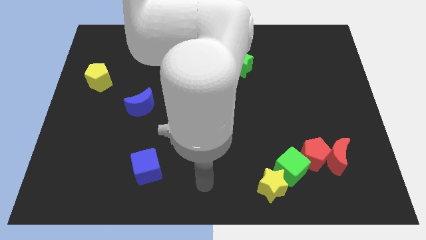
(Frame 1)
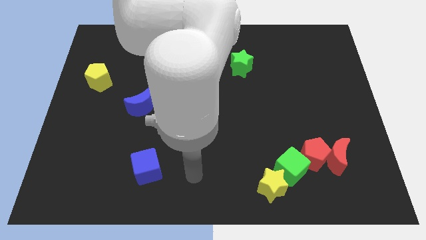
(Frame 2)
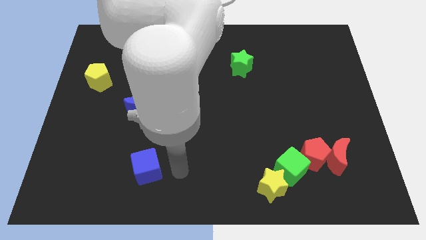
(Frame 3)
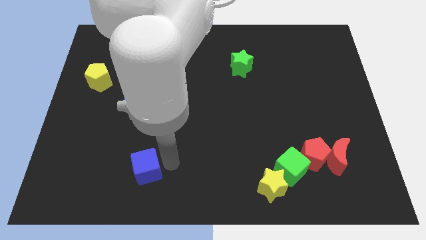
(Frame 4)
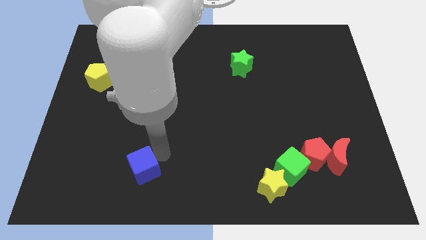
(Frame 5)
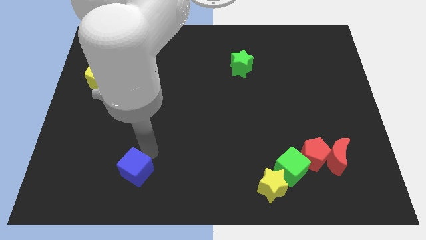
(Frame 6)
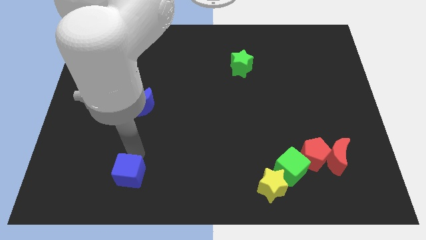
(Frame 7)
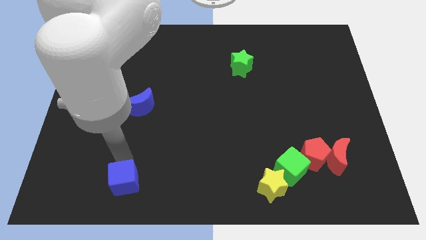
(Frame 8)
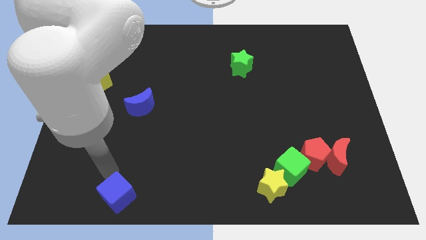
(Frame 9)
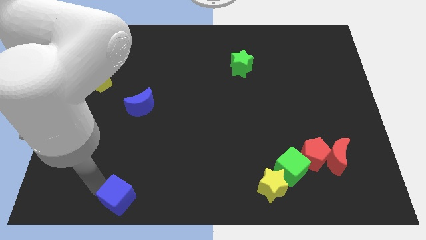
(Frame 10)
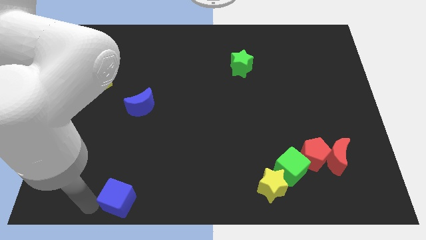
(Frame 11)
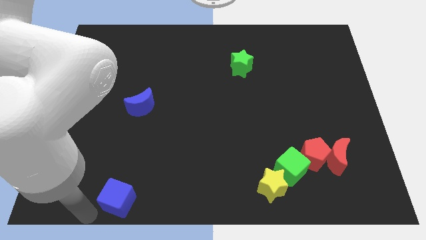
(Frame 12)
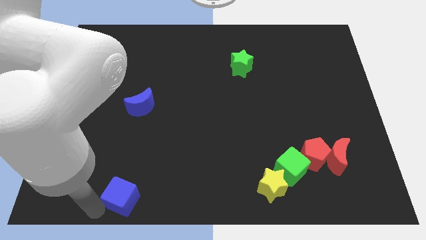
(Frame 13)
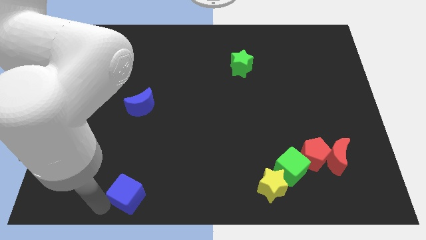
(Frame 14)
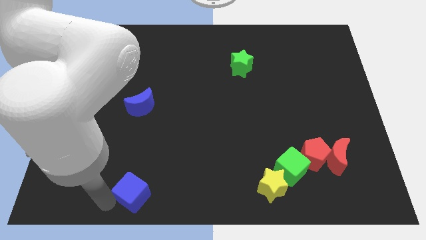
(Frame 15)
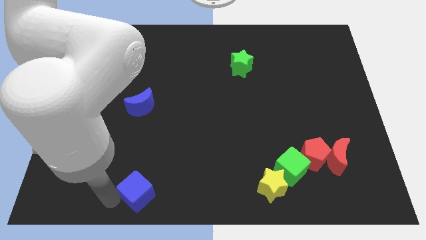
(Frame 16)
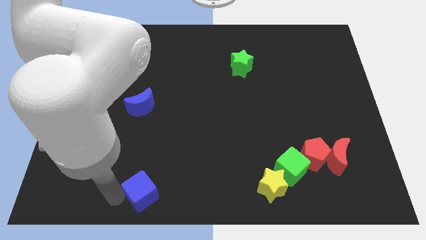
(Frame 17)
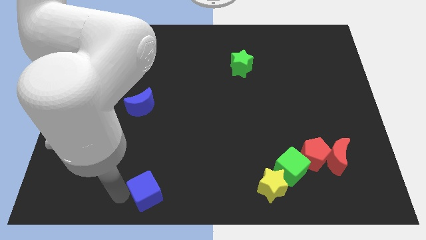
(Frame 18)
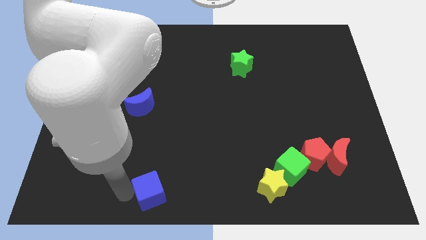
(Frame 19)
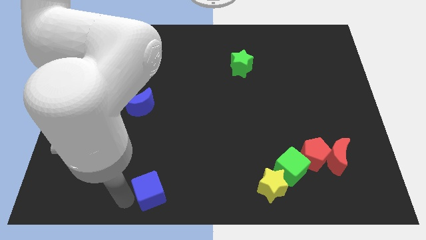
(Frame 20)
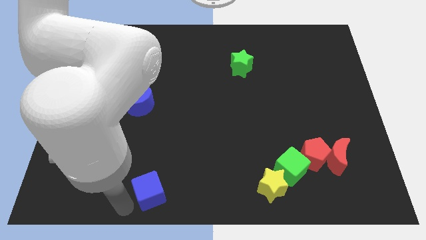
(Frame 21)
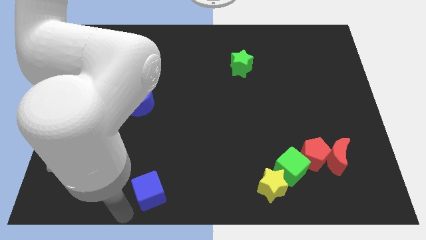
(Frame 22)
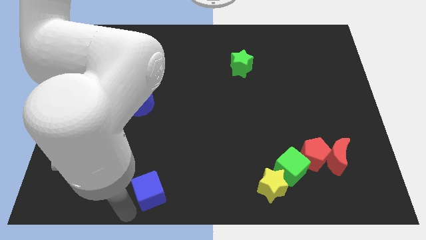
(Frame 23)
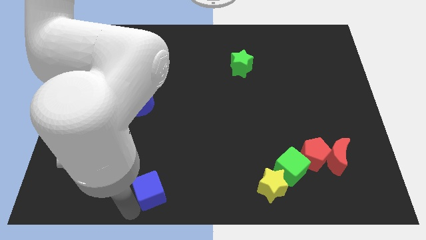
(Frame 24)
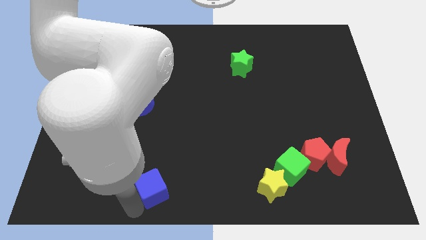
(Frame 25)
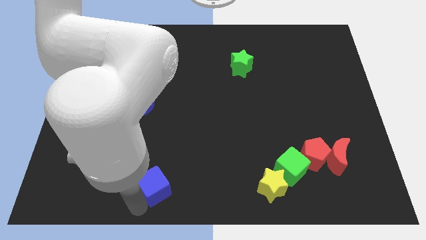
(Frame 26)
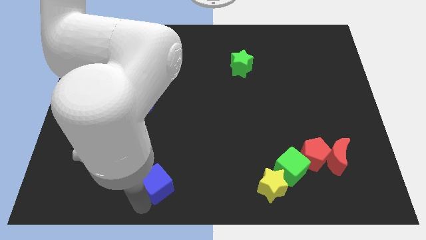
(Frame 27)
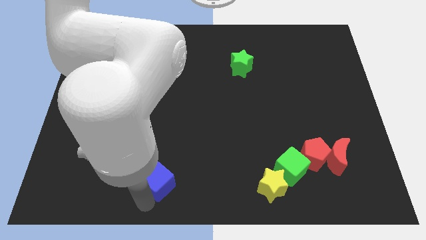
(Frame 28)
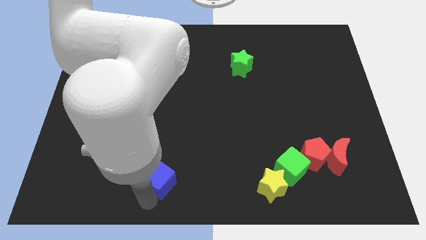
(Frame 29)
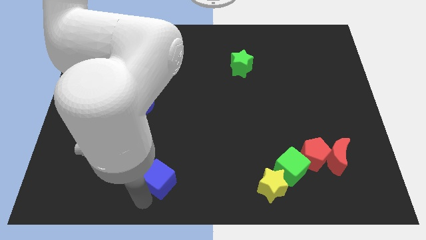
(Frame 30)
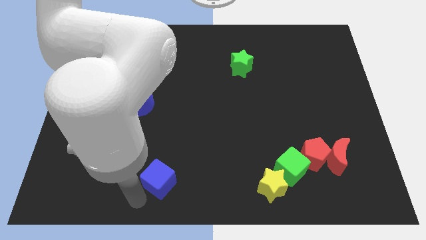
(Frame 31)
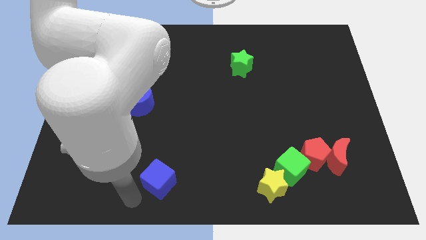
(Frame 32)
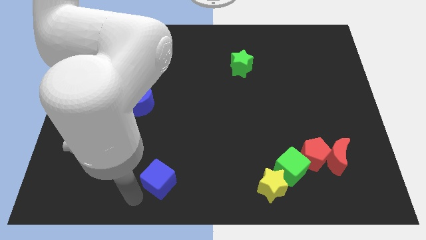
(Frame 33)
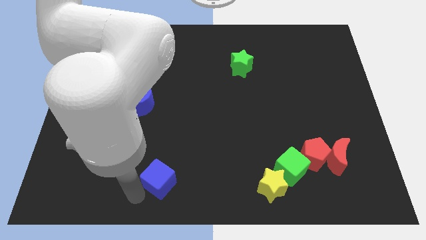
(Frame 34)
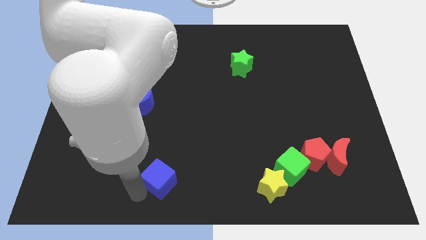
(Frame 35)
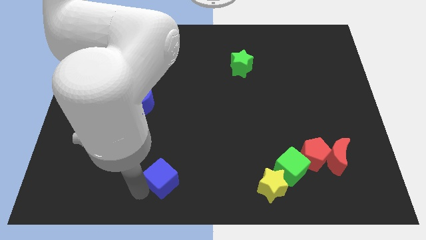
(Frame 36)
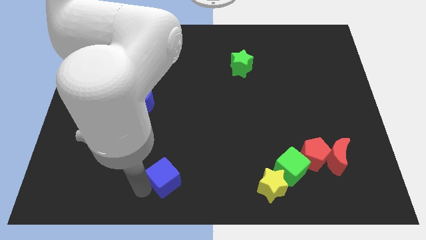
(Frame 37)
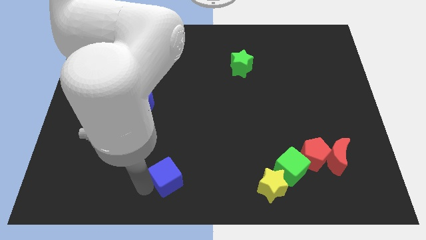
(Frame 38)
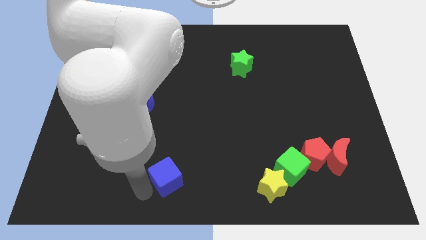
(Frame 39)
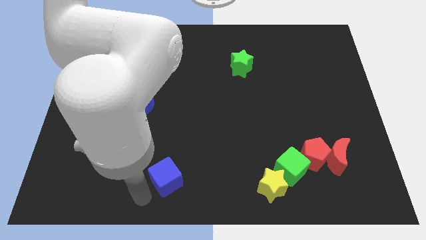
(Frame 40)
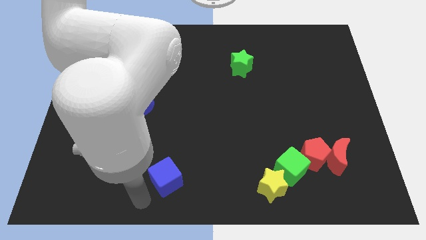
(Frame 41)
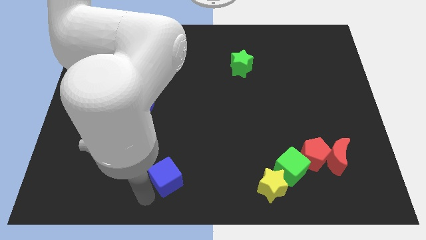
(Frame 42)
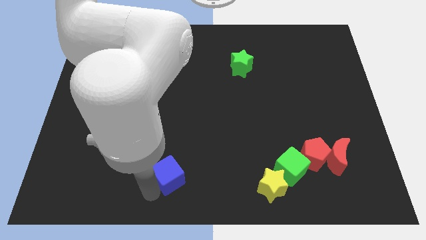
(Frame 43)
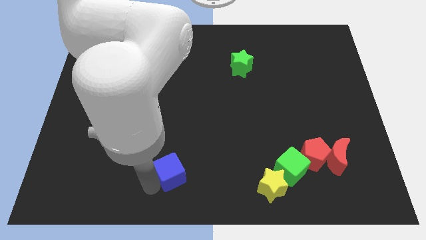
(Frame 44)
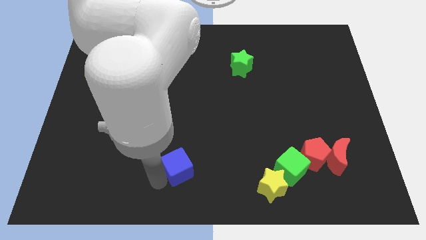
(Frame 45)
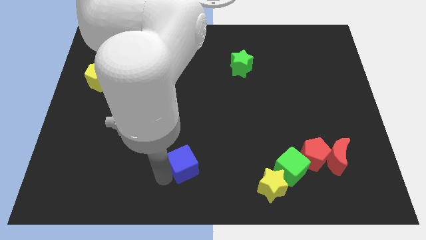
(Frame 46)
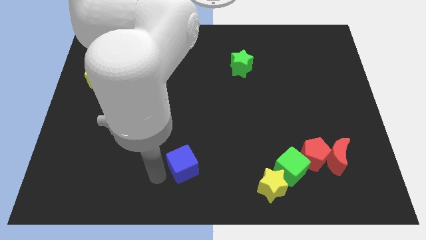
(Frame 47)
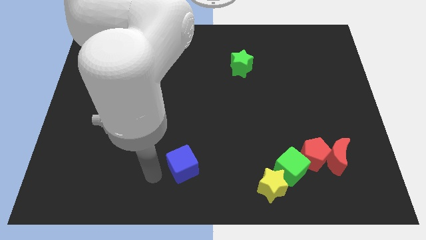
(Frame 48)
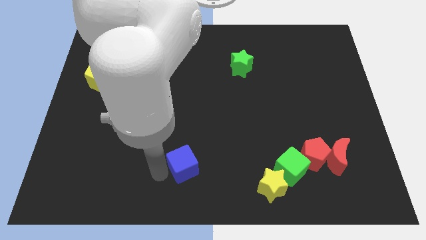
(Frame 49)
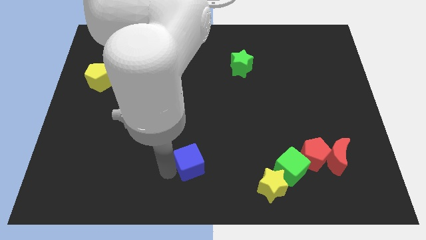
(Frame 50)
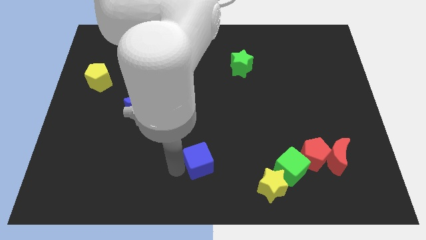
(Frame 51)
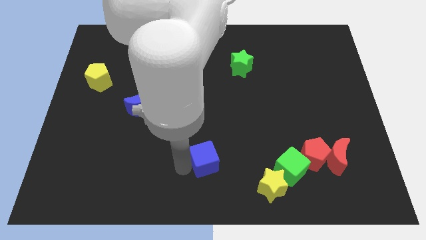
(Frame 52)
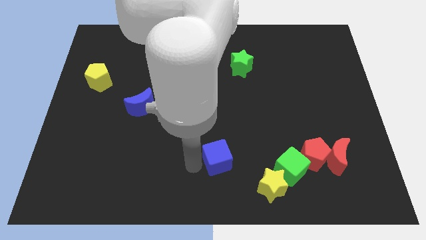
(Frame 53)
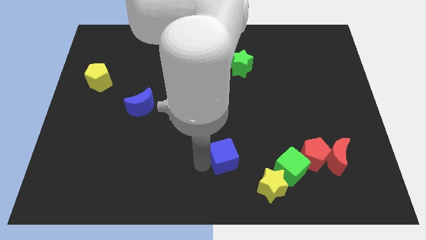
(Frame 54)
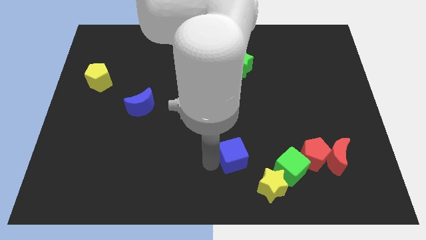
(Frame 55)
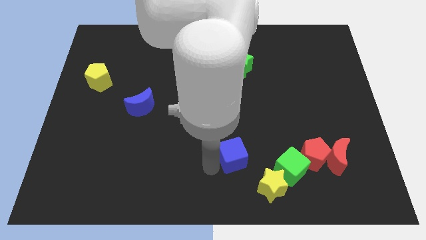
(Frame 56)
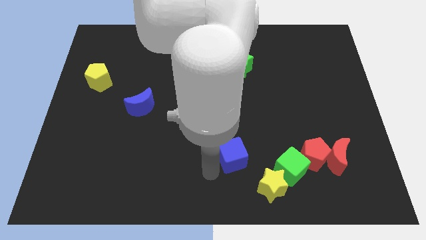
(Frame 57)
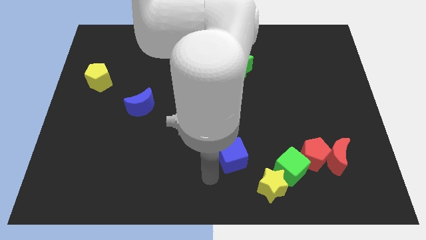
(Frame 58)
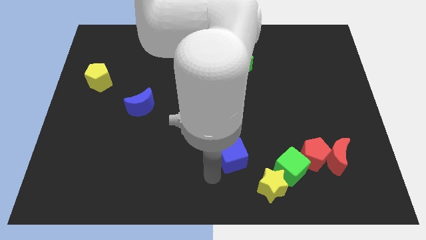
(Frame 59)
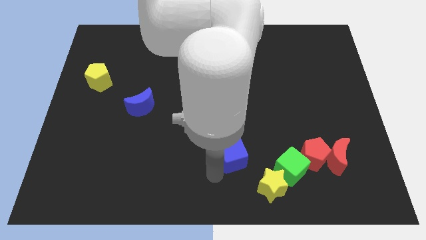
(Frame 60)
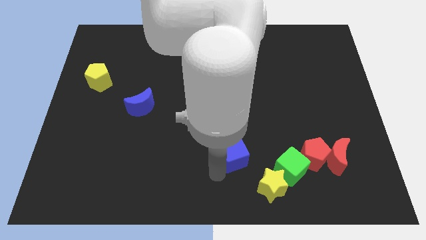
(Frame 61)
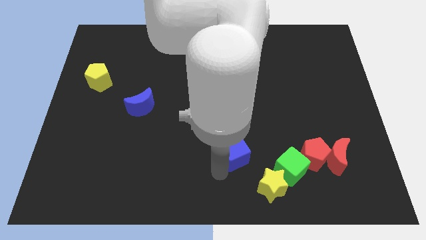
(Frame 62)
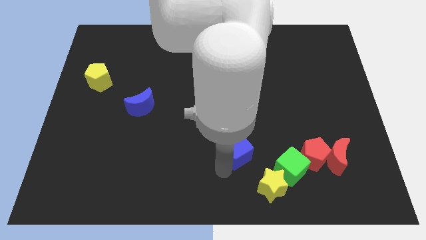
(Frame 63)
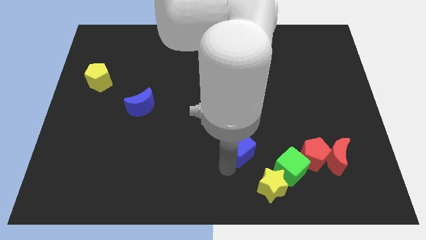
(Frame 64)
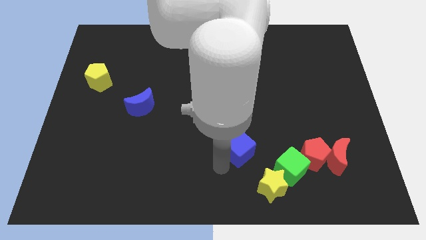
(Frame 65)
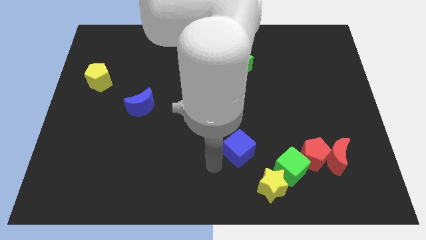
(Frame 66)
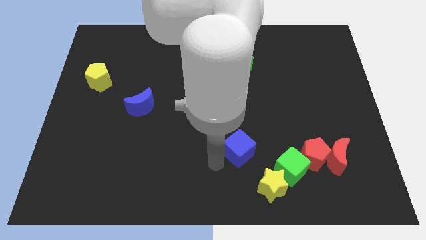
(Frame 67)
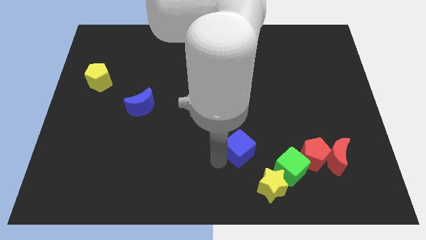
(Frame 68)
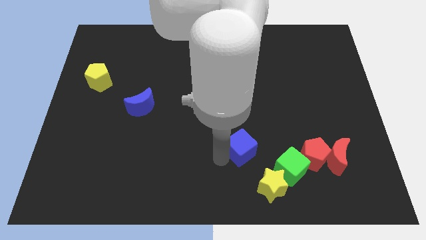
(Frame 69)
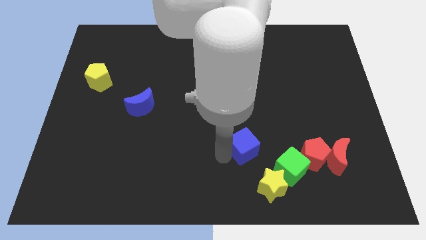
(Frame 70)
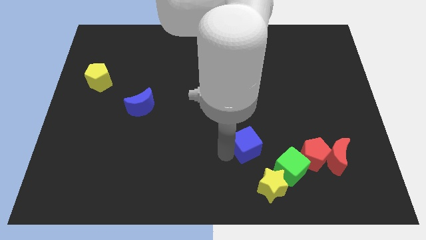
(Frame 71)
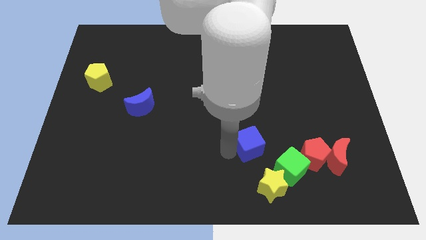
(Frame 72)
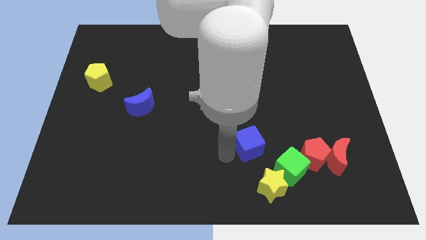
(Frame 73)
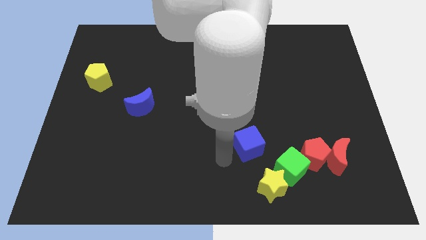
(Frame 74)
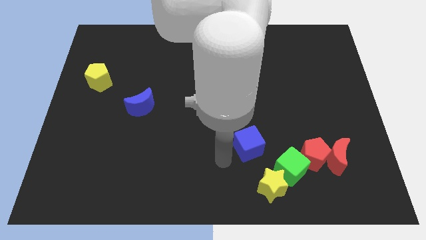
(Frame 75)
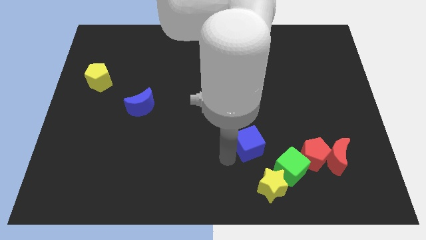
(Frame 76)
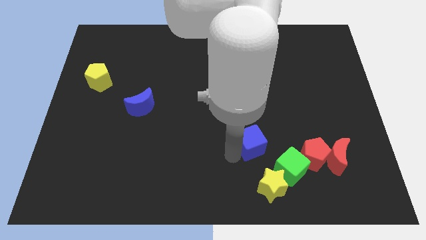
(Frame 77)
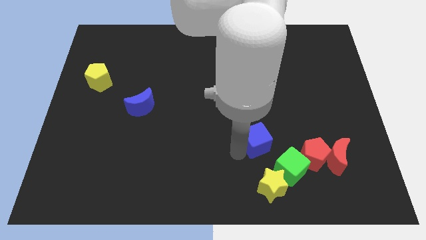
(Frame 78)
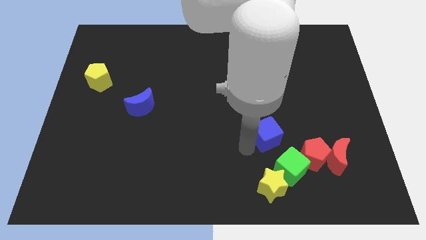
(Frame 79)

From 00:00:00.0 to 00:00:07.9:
slide the blue cube above the green cube
